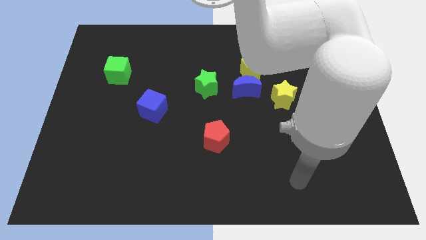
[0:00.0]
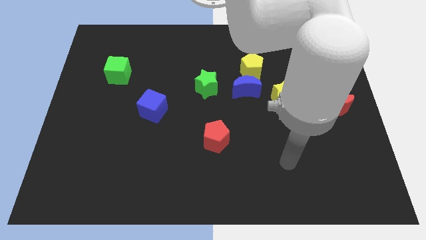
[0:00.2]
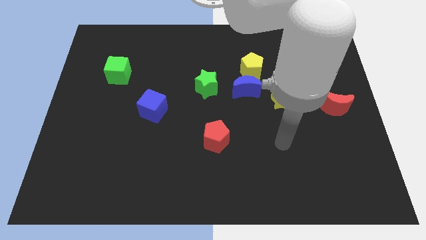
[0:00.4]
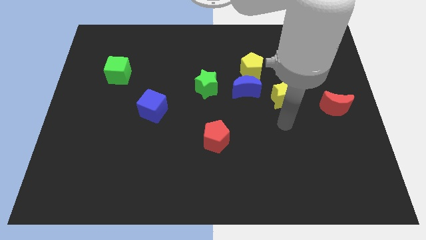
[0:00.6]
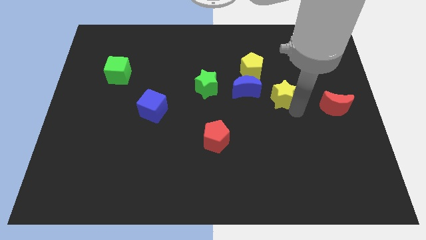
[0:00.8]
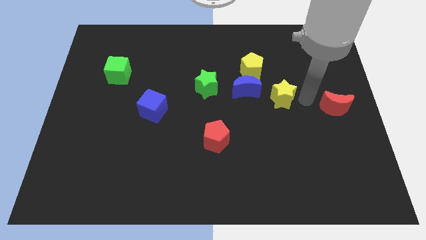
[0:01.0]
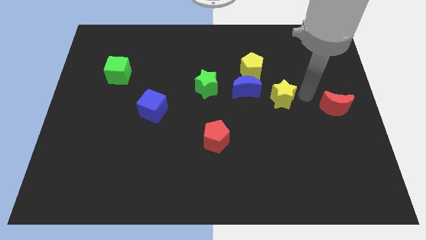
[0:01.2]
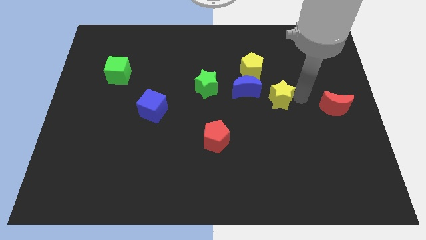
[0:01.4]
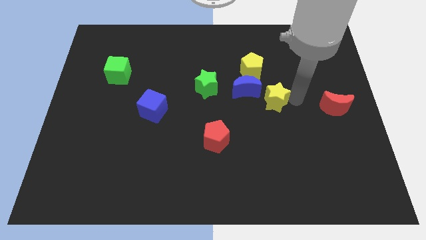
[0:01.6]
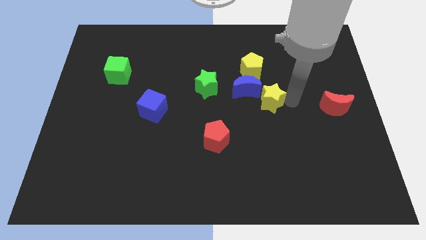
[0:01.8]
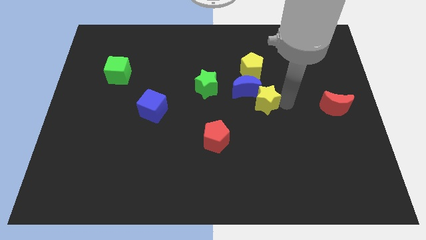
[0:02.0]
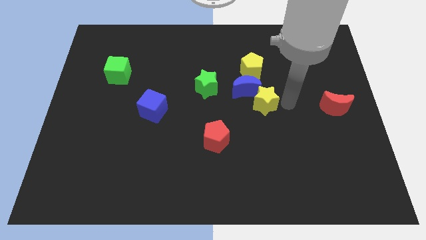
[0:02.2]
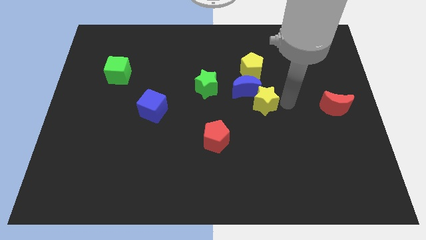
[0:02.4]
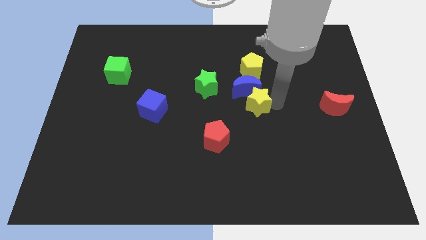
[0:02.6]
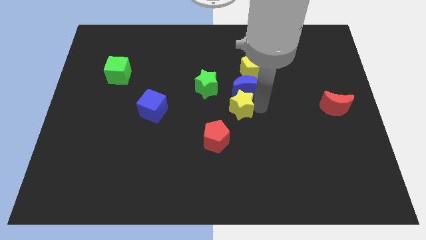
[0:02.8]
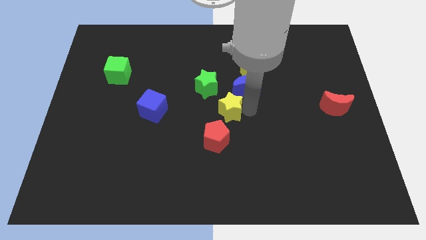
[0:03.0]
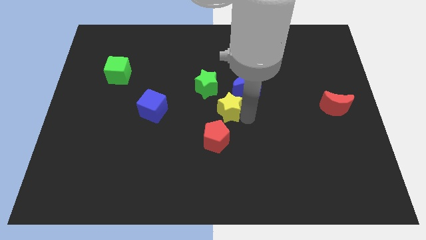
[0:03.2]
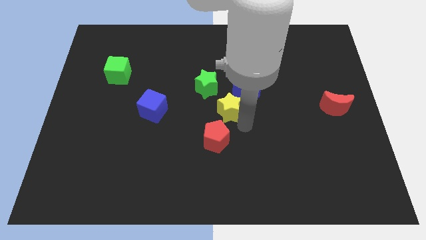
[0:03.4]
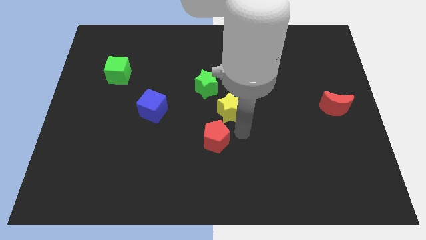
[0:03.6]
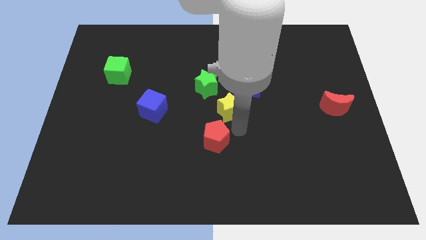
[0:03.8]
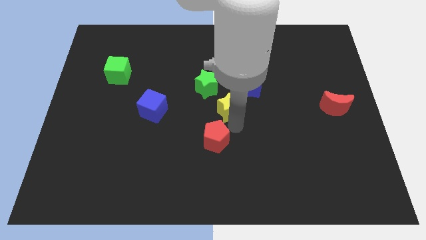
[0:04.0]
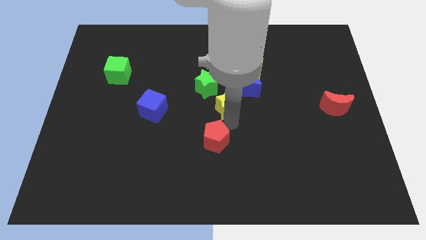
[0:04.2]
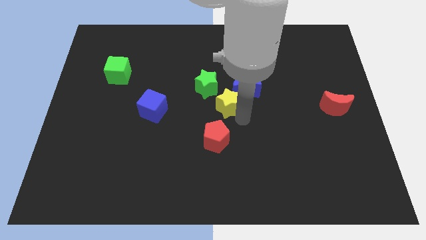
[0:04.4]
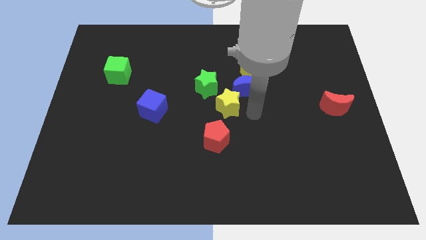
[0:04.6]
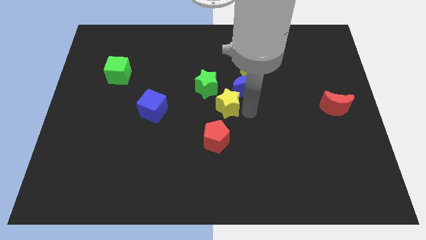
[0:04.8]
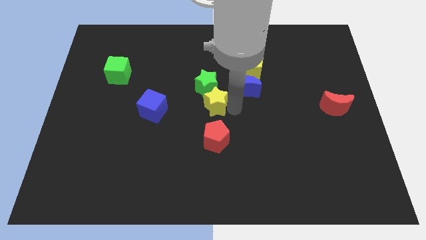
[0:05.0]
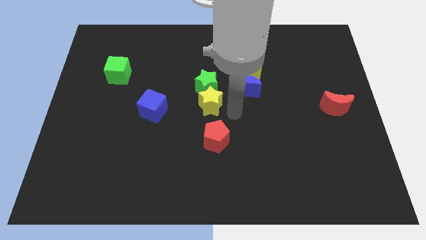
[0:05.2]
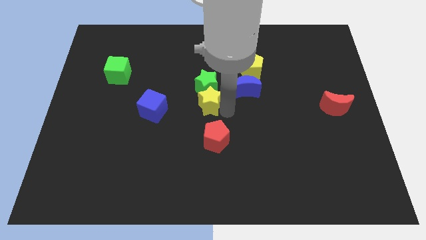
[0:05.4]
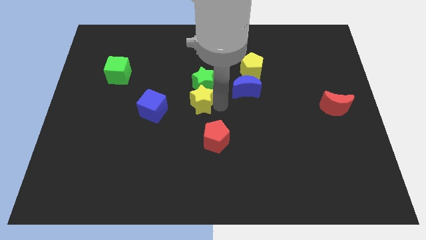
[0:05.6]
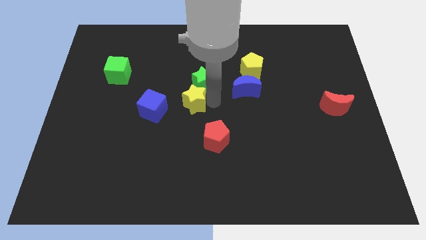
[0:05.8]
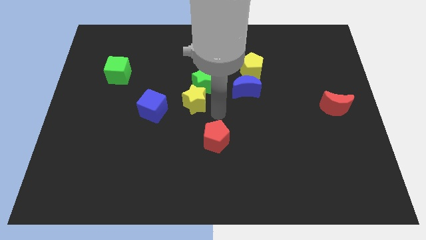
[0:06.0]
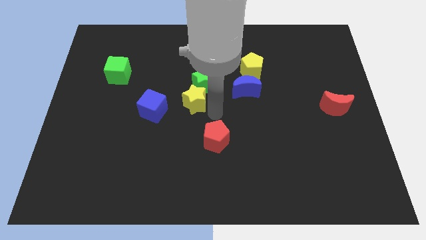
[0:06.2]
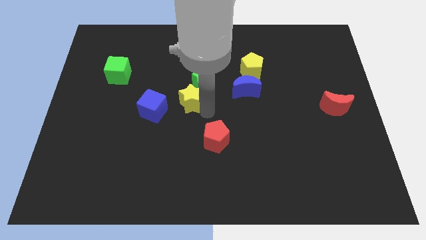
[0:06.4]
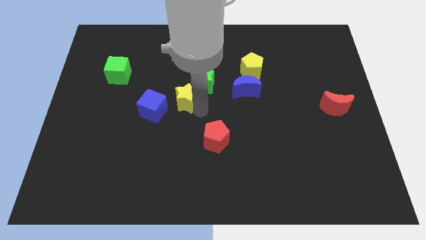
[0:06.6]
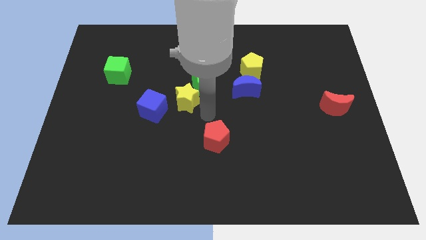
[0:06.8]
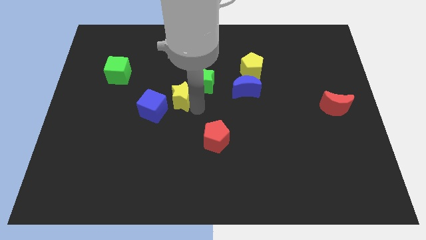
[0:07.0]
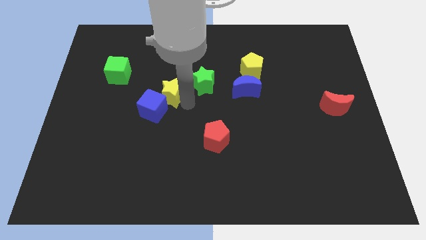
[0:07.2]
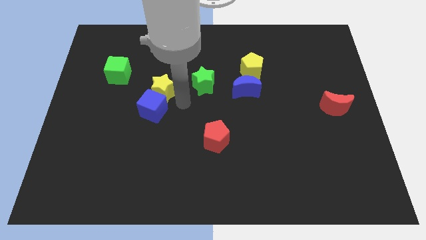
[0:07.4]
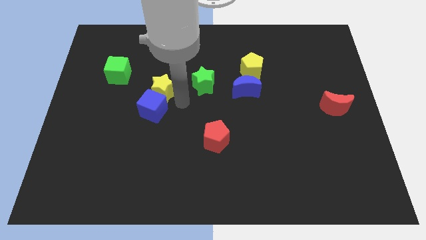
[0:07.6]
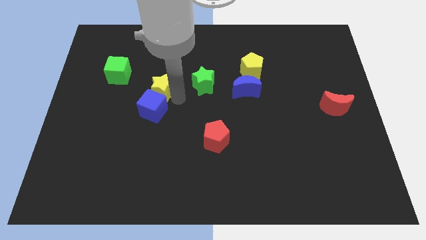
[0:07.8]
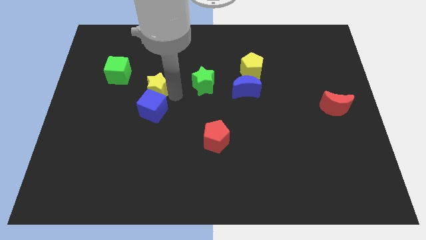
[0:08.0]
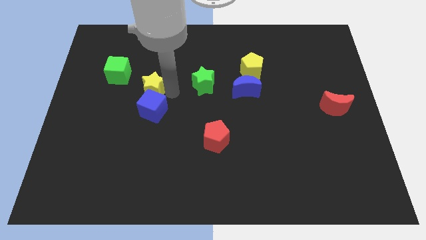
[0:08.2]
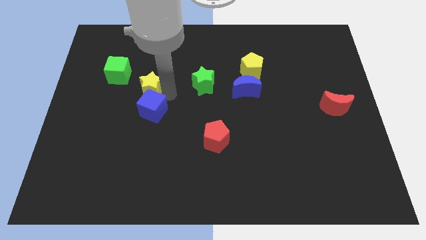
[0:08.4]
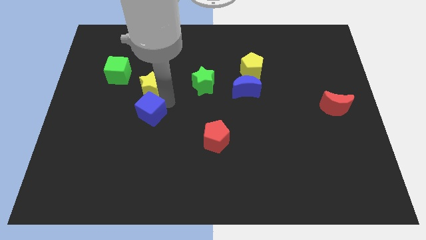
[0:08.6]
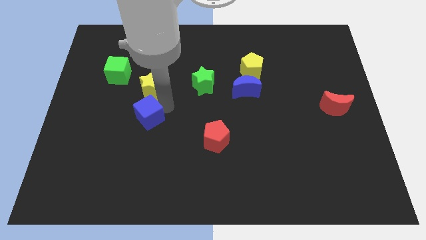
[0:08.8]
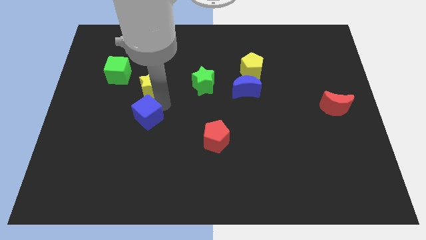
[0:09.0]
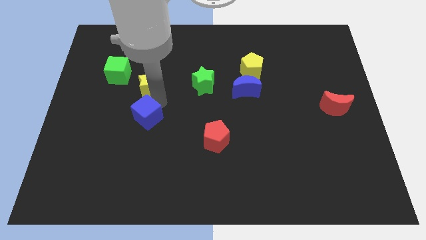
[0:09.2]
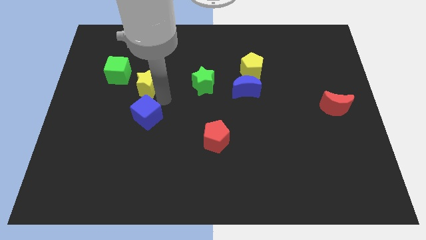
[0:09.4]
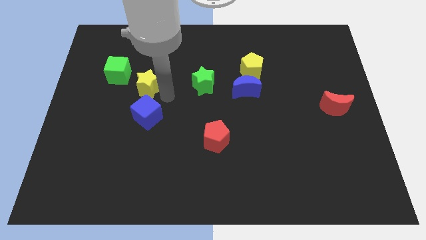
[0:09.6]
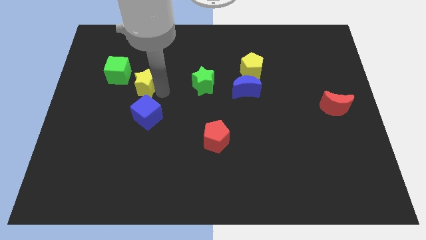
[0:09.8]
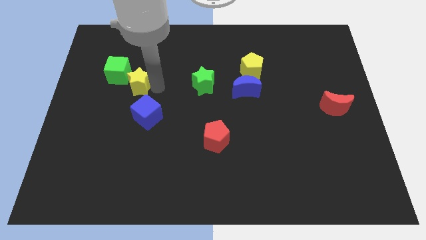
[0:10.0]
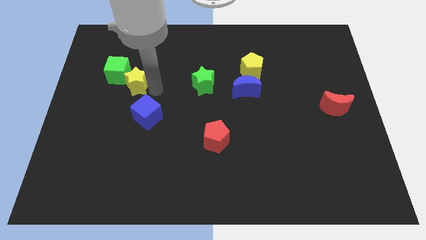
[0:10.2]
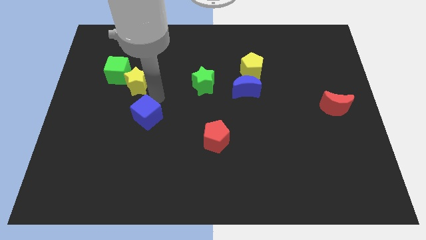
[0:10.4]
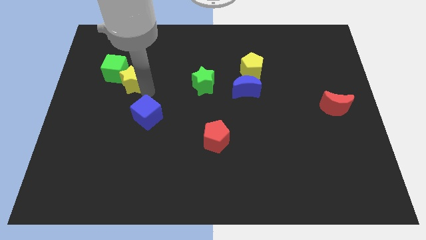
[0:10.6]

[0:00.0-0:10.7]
slide the yellow star next to the green cube

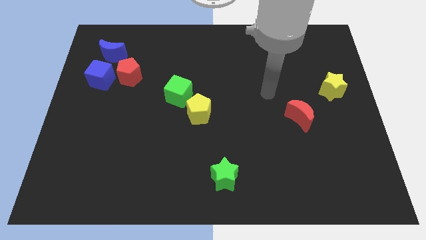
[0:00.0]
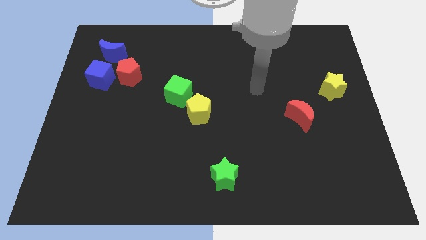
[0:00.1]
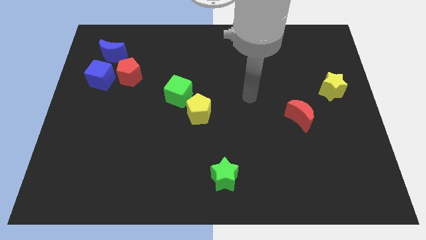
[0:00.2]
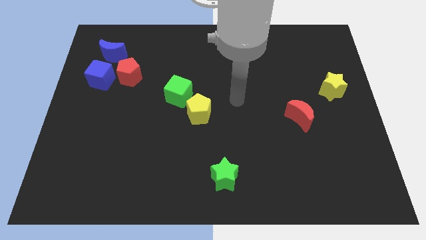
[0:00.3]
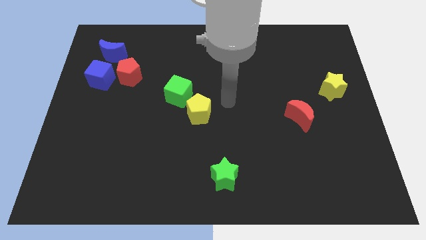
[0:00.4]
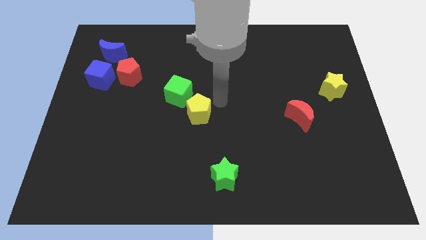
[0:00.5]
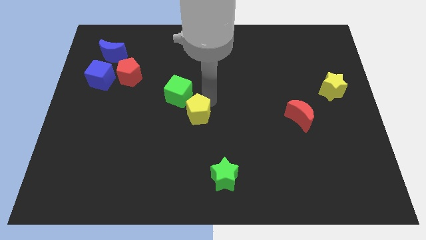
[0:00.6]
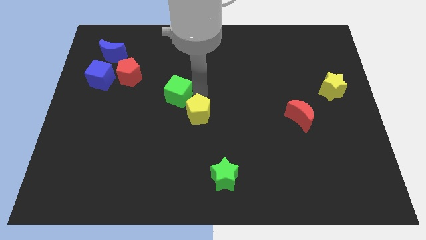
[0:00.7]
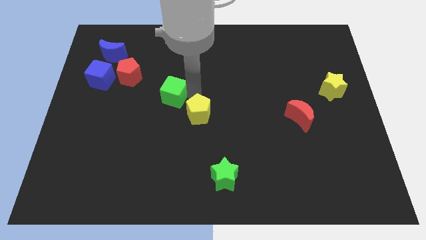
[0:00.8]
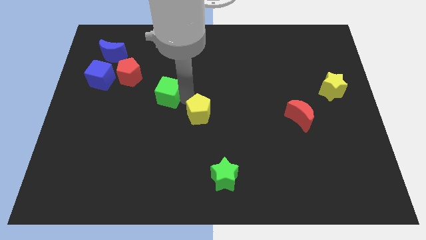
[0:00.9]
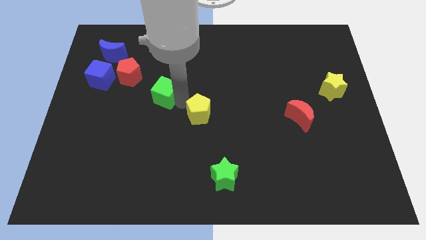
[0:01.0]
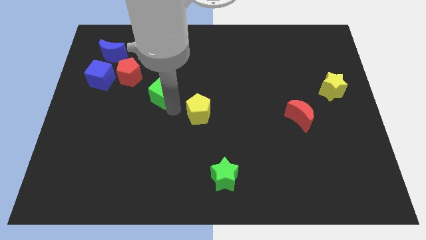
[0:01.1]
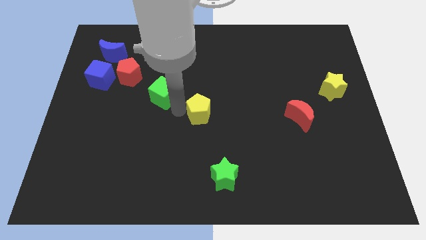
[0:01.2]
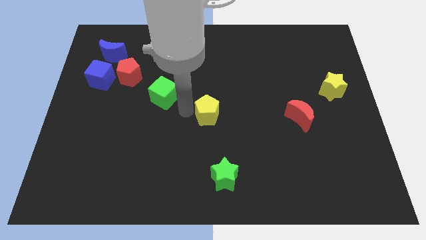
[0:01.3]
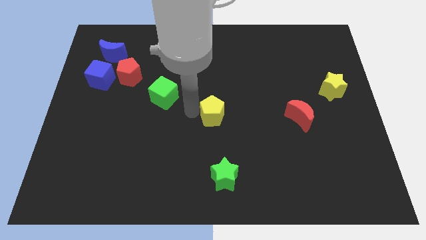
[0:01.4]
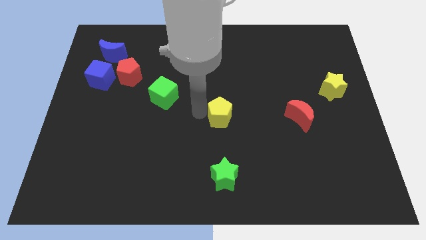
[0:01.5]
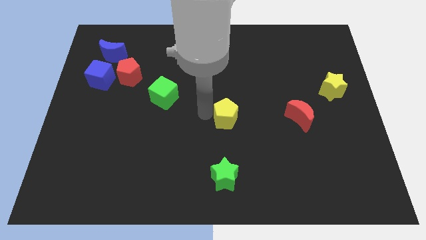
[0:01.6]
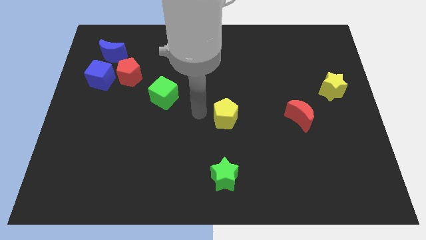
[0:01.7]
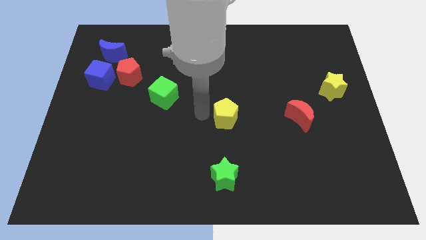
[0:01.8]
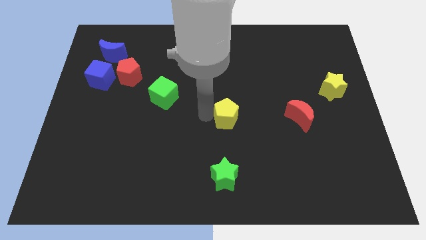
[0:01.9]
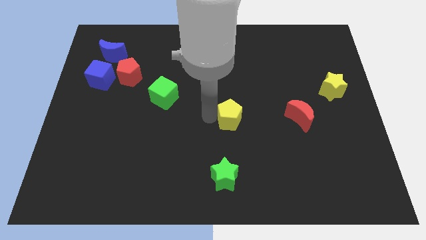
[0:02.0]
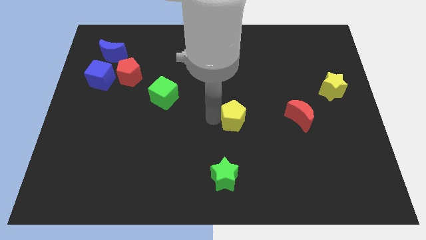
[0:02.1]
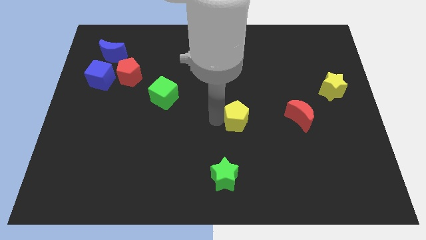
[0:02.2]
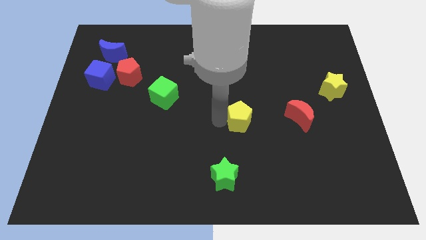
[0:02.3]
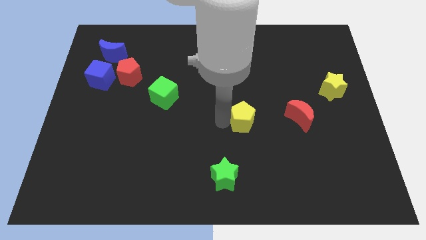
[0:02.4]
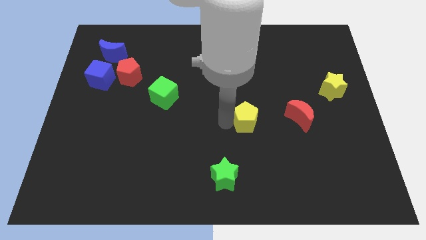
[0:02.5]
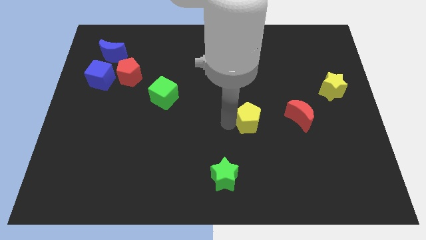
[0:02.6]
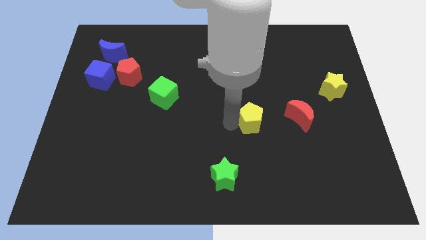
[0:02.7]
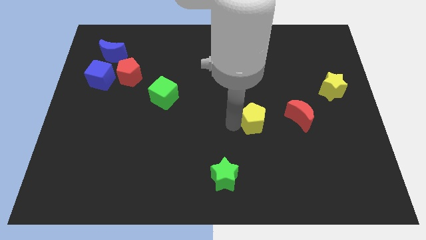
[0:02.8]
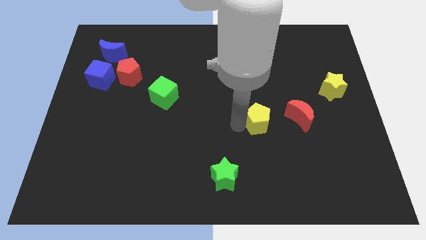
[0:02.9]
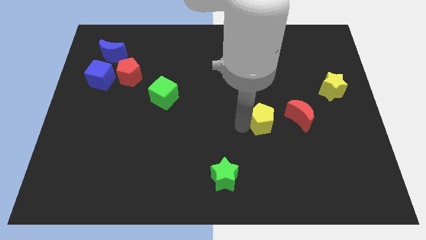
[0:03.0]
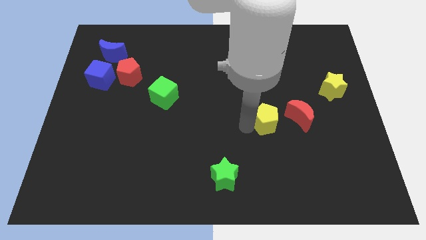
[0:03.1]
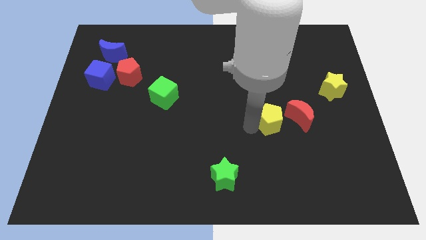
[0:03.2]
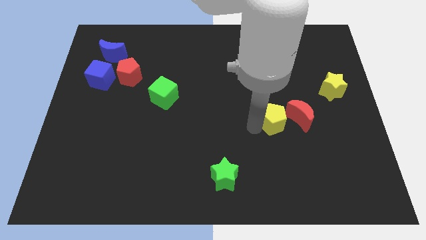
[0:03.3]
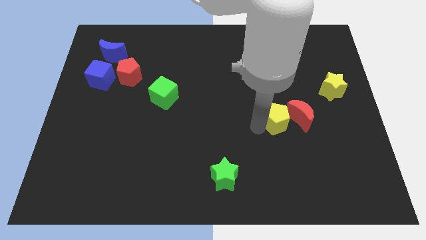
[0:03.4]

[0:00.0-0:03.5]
put the yellow pentagon close to the red moon
